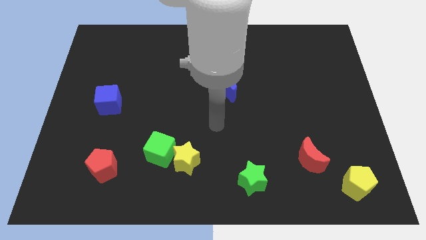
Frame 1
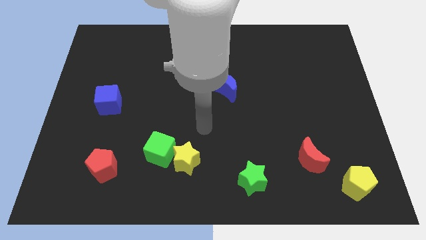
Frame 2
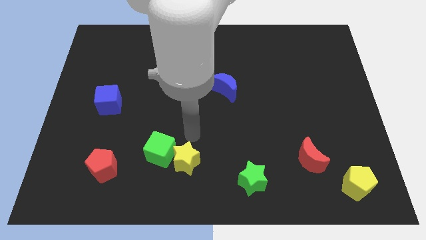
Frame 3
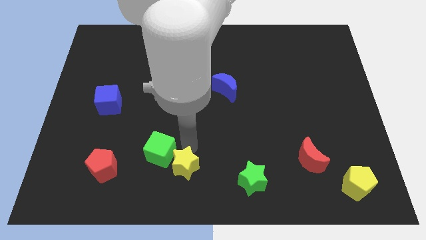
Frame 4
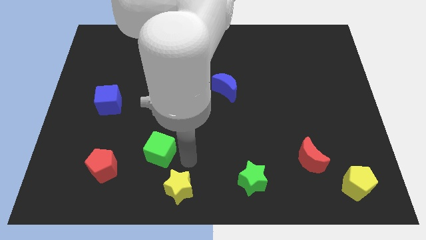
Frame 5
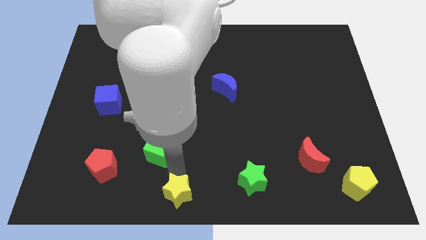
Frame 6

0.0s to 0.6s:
pull the green cube apart from the yellow star

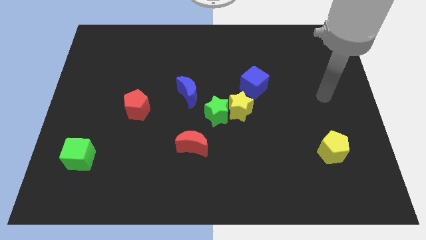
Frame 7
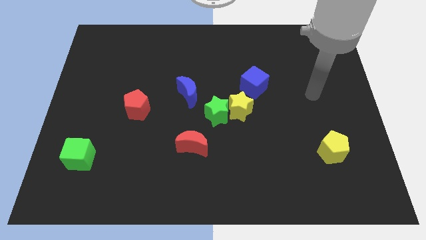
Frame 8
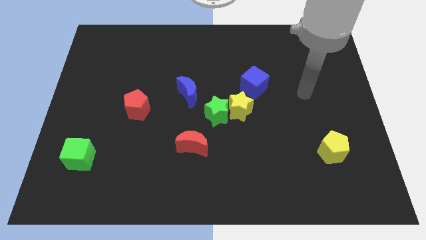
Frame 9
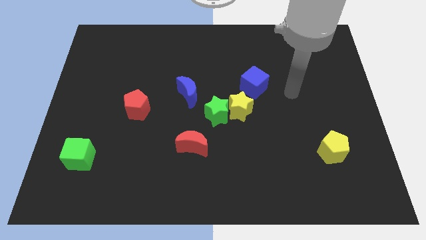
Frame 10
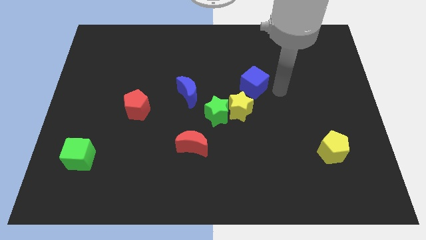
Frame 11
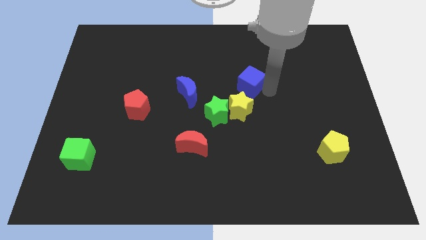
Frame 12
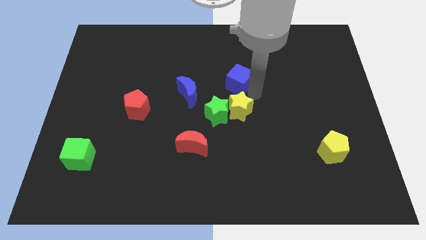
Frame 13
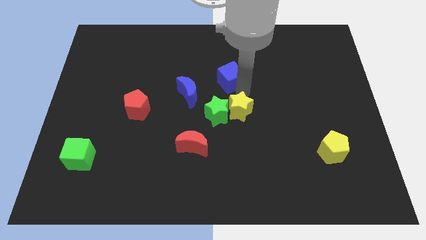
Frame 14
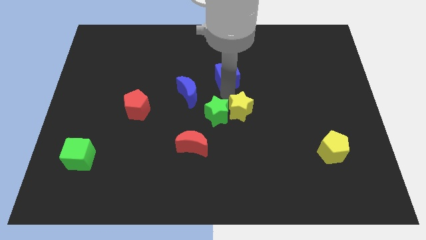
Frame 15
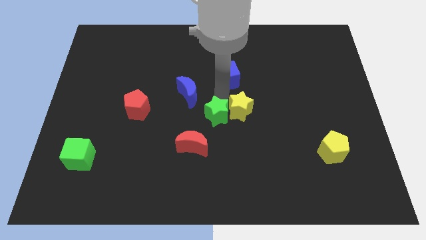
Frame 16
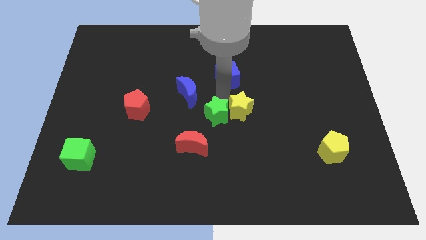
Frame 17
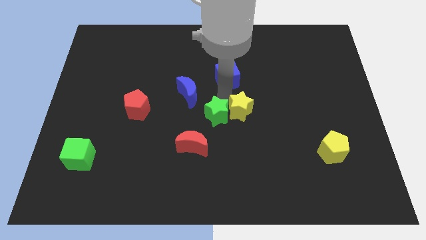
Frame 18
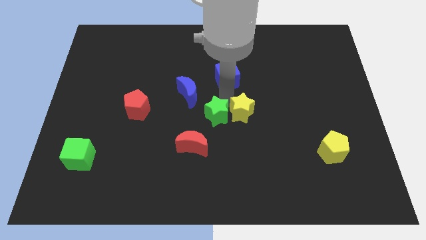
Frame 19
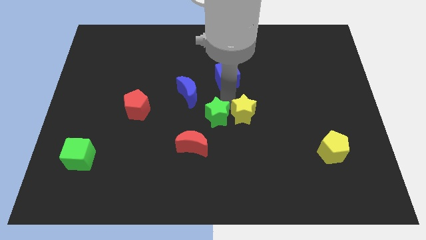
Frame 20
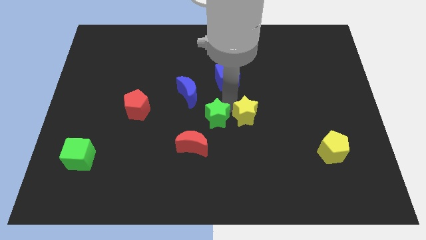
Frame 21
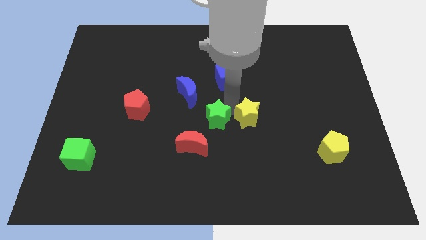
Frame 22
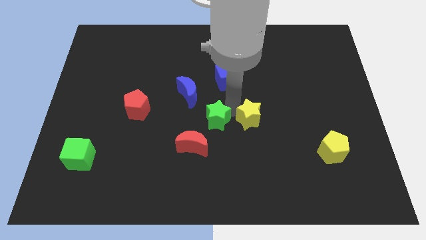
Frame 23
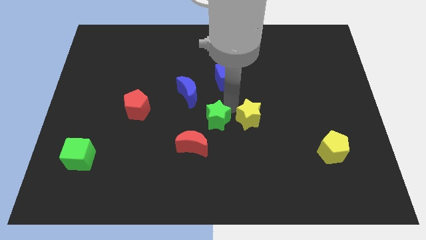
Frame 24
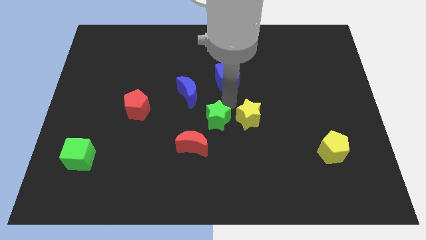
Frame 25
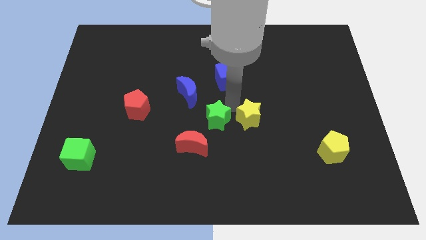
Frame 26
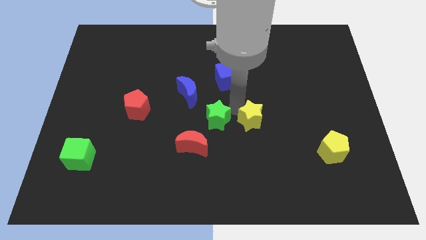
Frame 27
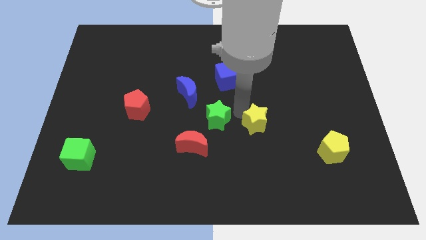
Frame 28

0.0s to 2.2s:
separate the yellow star from the green star and blue cube

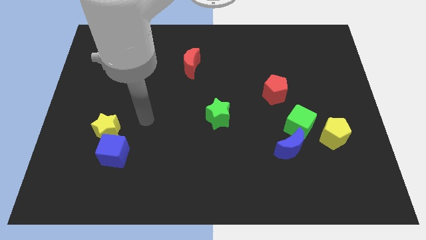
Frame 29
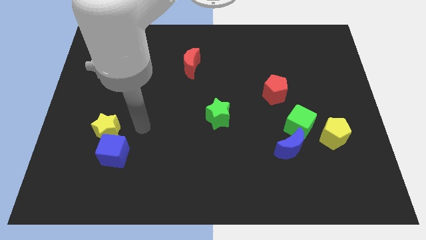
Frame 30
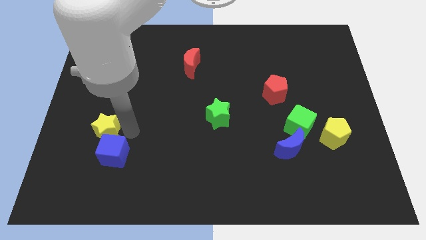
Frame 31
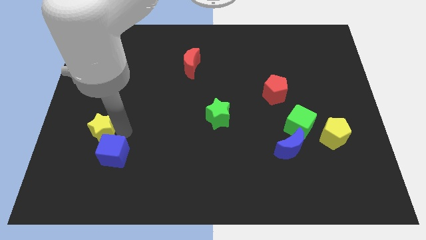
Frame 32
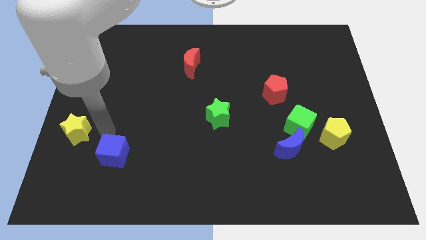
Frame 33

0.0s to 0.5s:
pull the blue cube apart from the yellow star

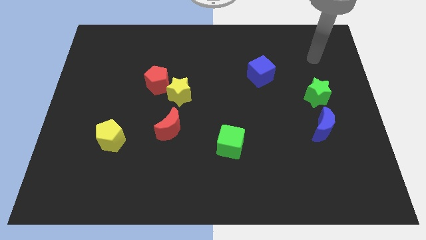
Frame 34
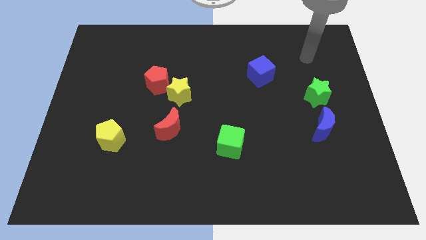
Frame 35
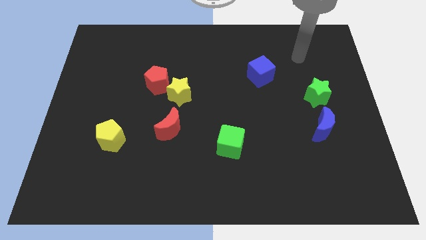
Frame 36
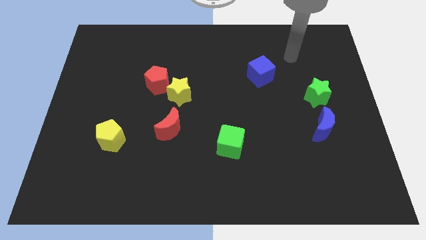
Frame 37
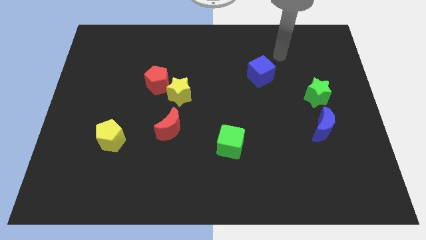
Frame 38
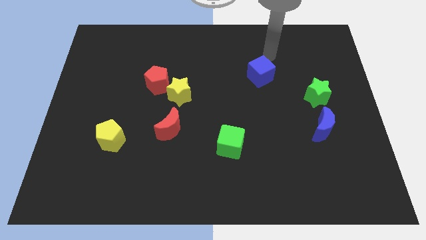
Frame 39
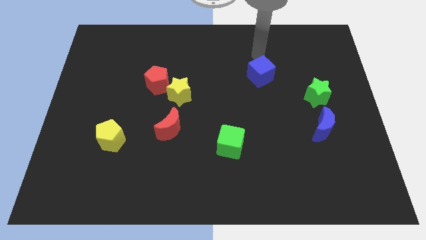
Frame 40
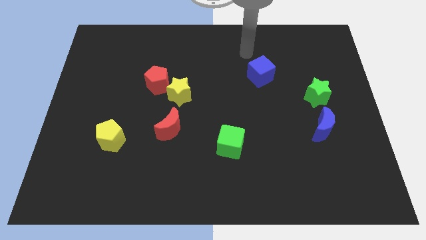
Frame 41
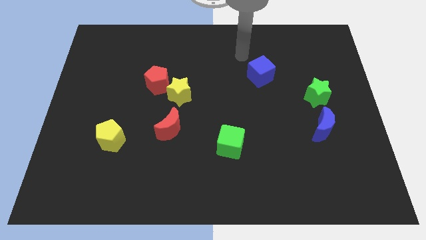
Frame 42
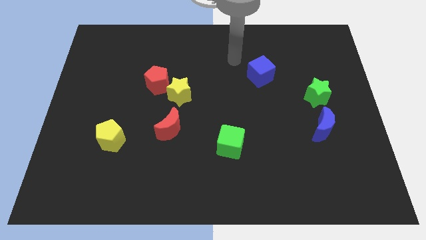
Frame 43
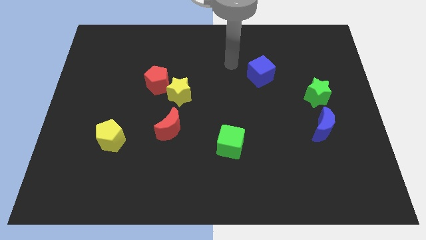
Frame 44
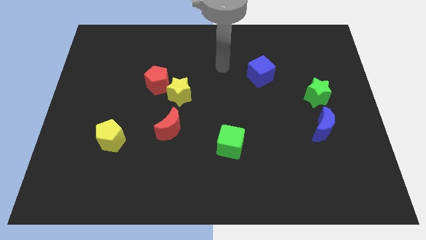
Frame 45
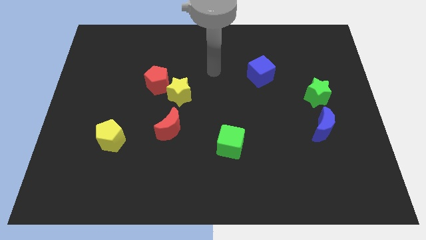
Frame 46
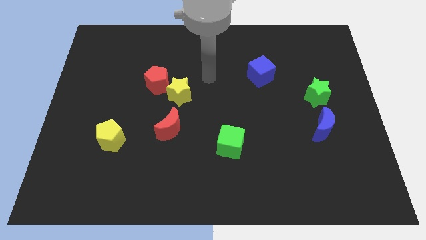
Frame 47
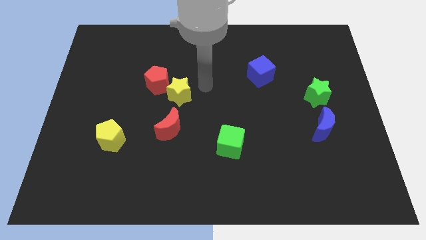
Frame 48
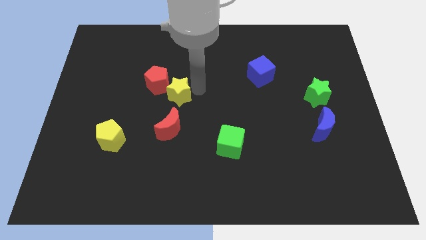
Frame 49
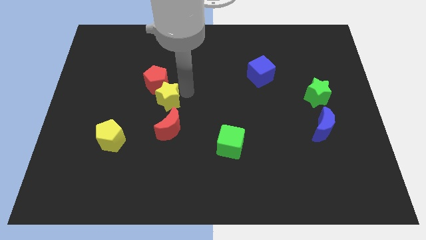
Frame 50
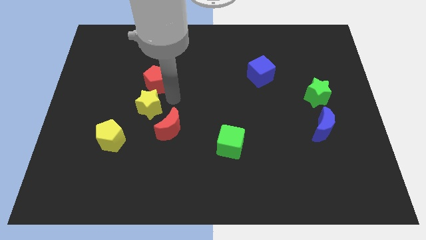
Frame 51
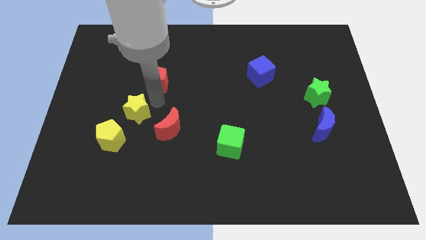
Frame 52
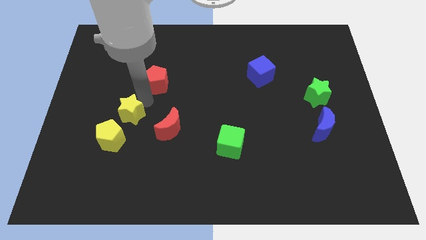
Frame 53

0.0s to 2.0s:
pull the red pentagon apart from the yellow star

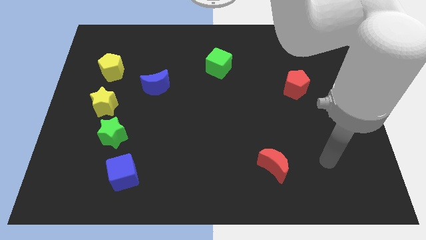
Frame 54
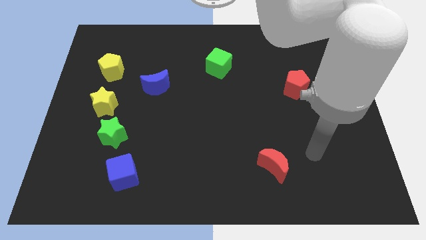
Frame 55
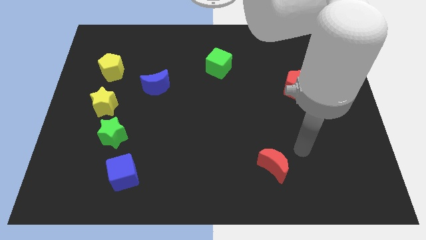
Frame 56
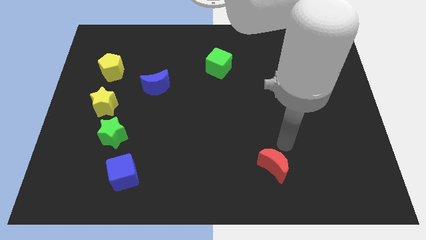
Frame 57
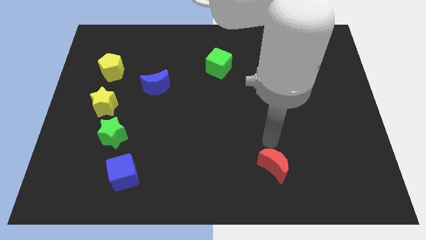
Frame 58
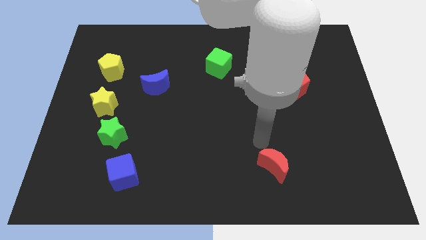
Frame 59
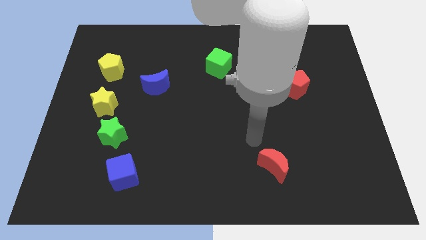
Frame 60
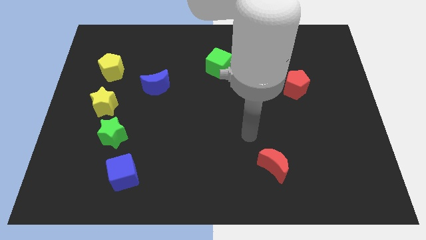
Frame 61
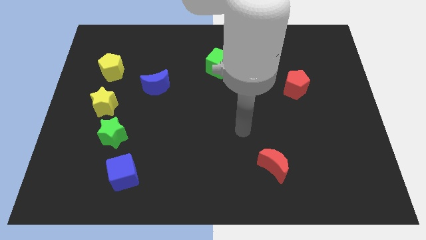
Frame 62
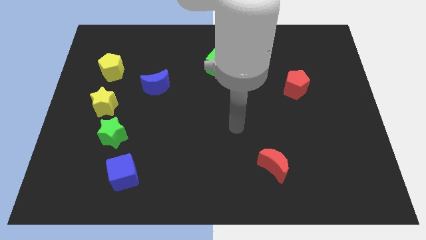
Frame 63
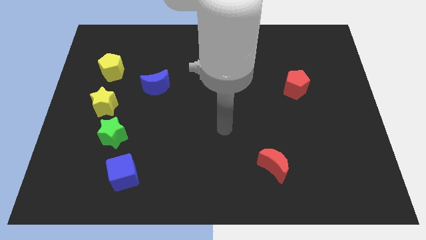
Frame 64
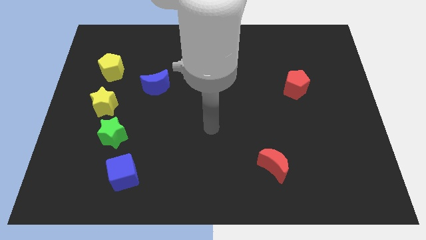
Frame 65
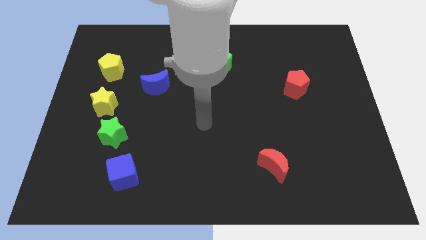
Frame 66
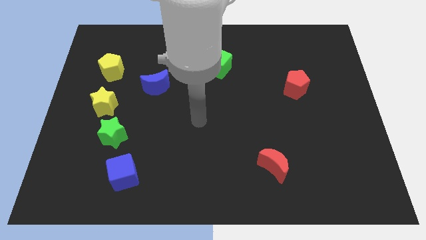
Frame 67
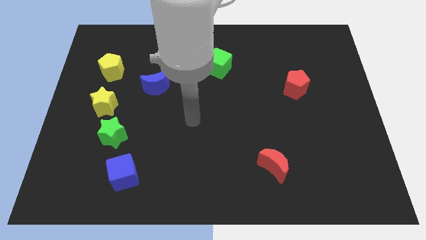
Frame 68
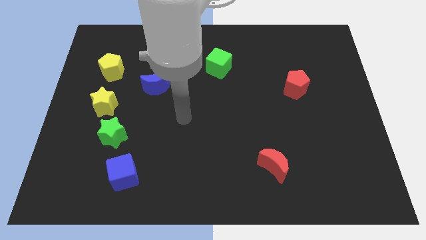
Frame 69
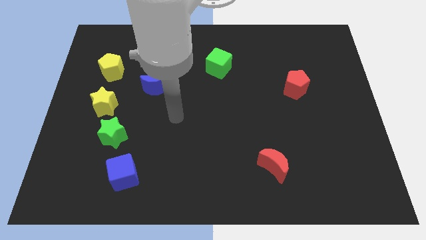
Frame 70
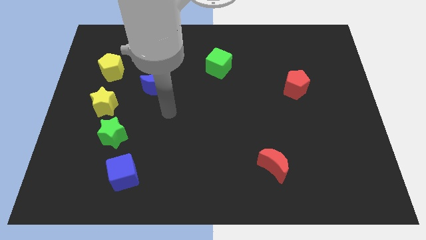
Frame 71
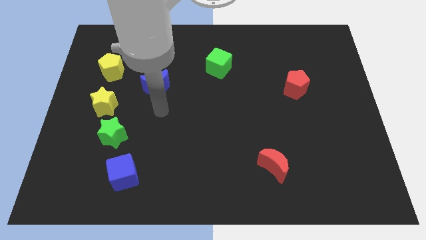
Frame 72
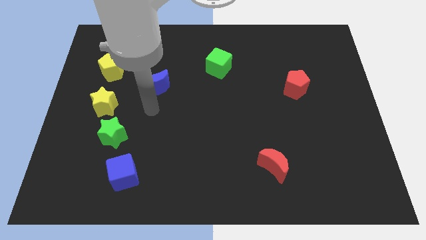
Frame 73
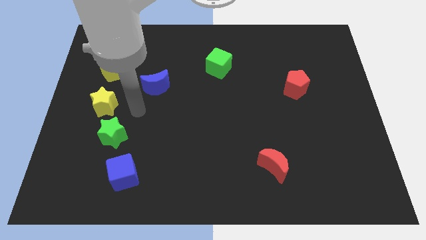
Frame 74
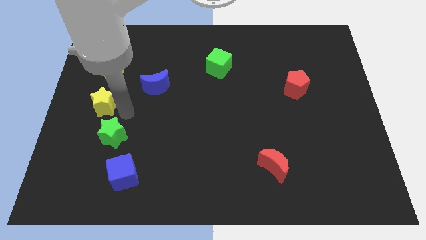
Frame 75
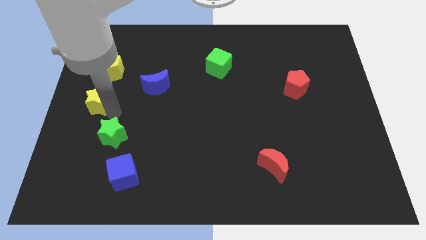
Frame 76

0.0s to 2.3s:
separate the green star from the yellow star

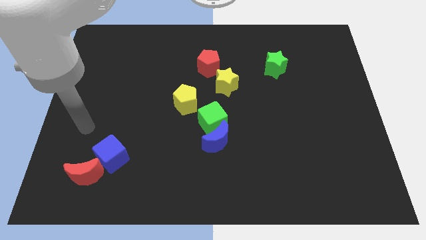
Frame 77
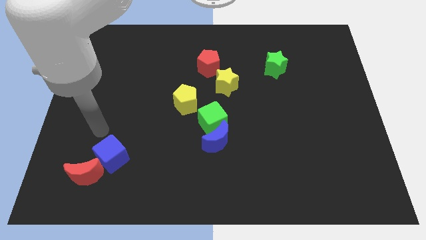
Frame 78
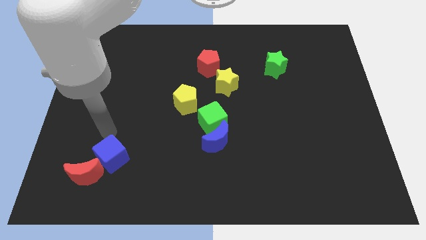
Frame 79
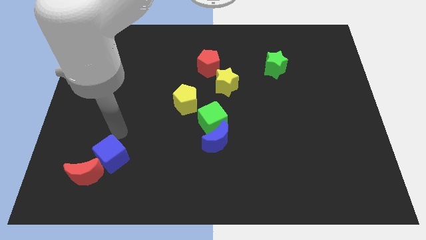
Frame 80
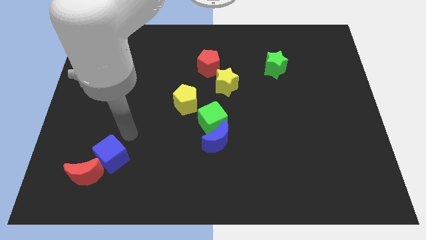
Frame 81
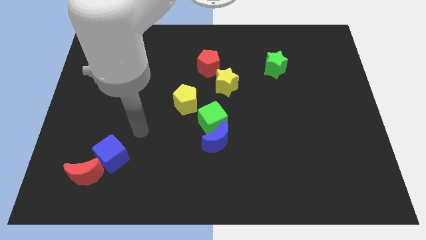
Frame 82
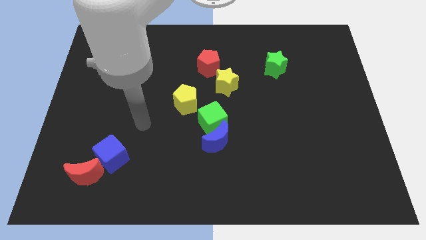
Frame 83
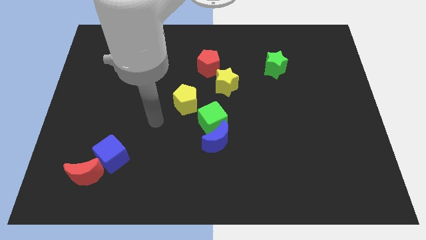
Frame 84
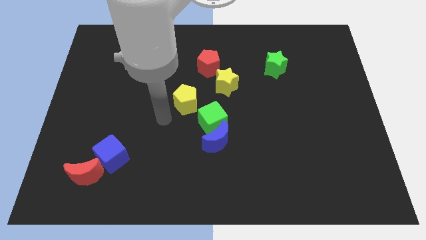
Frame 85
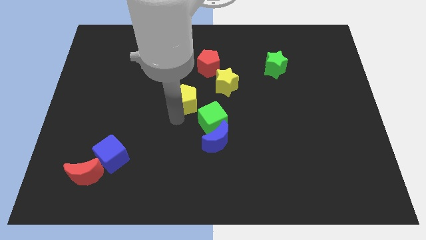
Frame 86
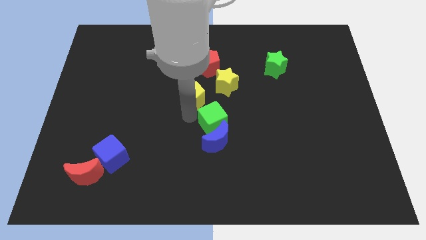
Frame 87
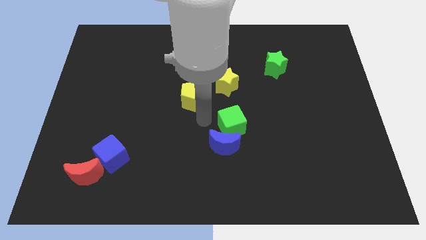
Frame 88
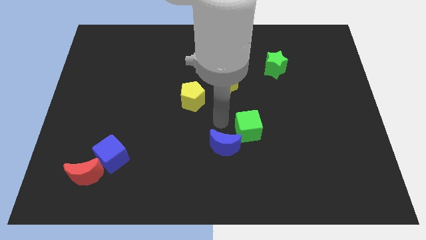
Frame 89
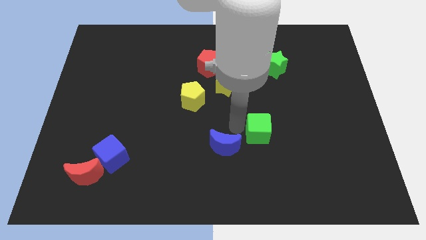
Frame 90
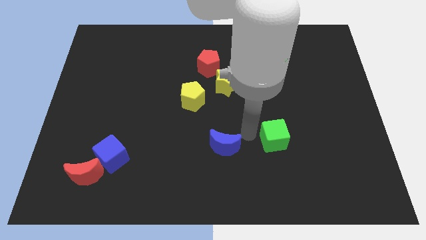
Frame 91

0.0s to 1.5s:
separate the blue moon from the green cube

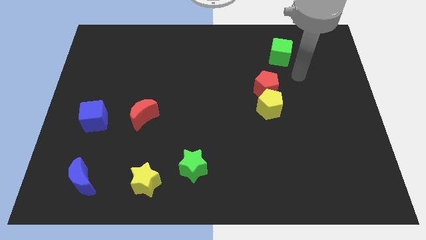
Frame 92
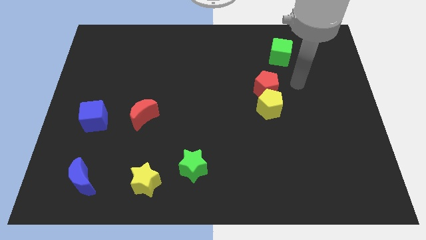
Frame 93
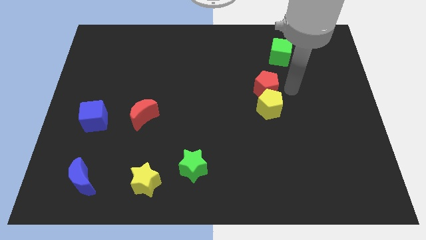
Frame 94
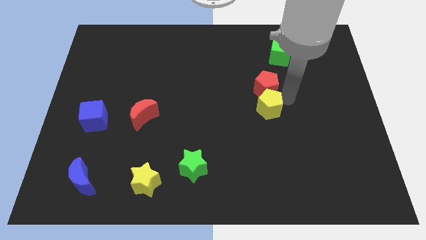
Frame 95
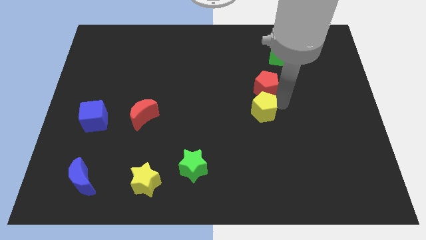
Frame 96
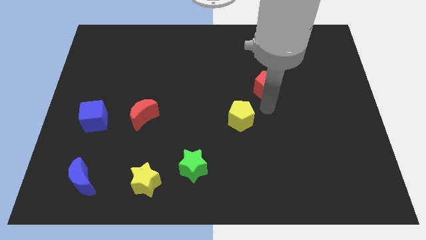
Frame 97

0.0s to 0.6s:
separate the red pentagon from the yellow pentagon
